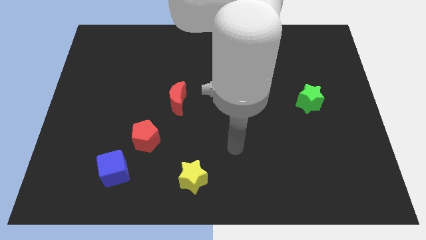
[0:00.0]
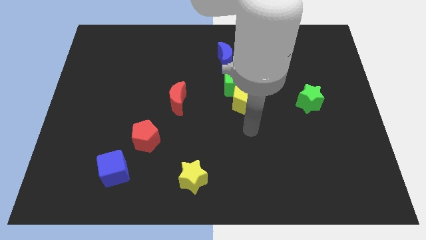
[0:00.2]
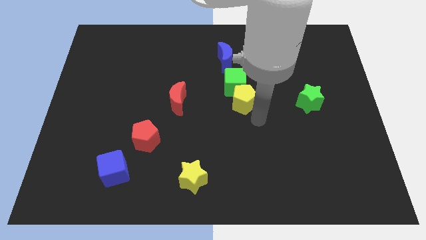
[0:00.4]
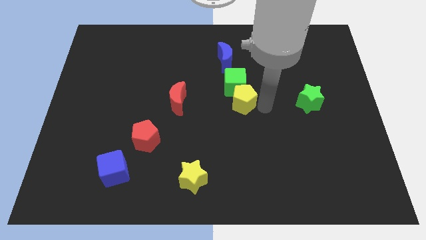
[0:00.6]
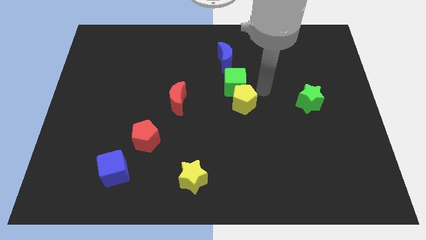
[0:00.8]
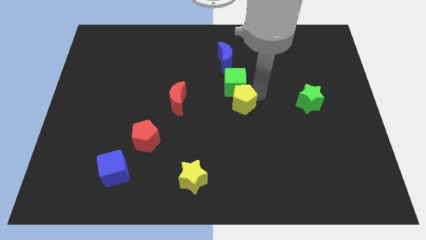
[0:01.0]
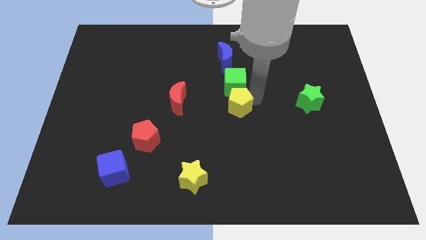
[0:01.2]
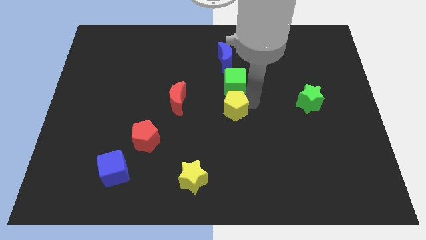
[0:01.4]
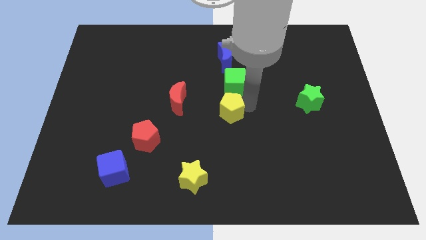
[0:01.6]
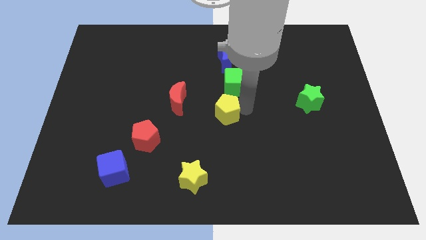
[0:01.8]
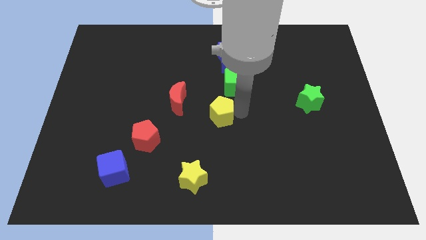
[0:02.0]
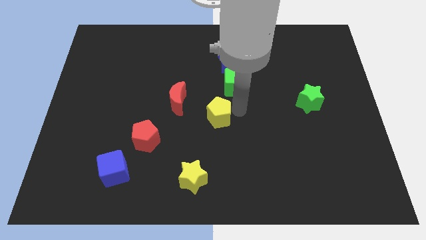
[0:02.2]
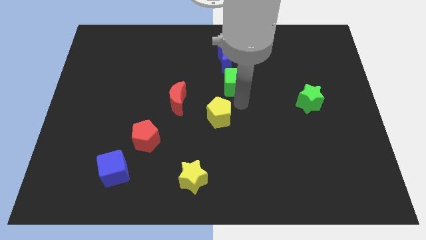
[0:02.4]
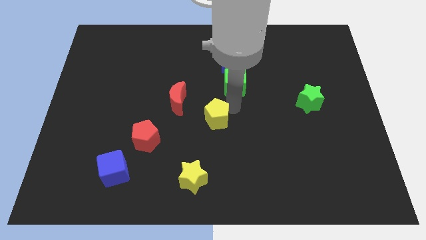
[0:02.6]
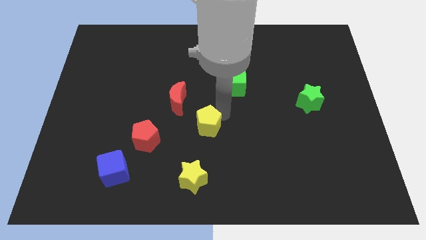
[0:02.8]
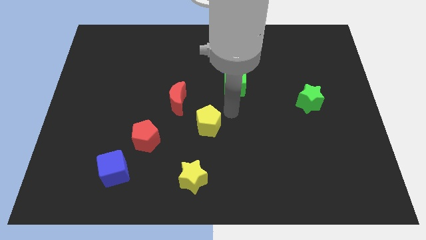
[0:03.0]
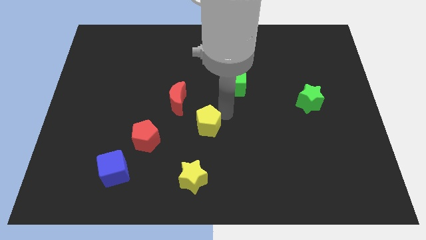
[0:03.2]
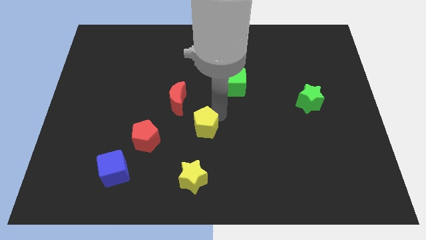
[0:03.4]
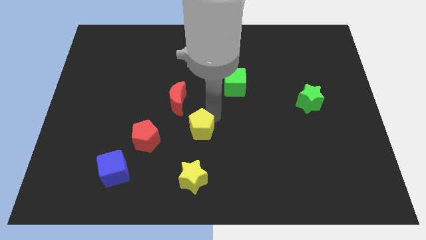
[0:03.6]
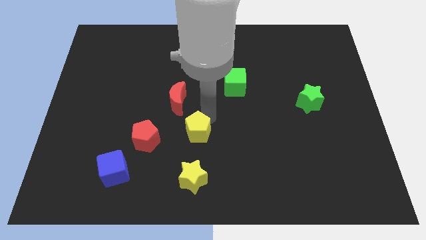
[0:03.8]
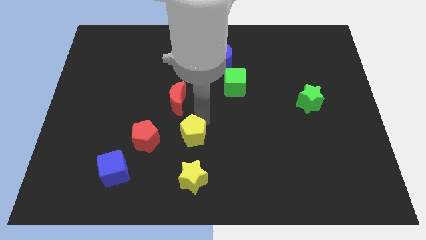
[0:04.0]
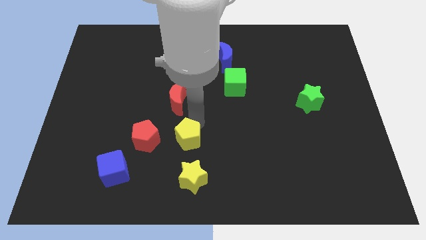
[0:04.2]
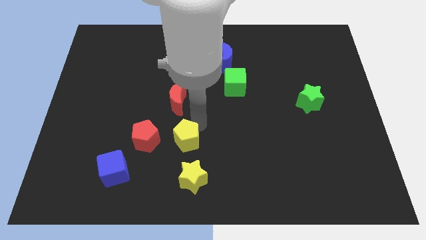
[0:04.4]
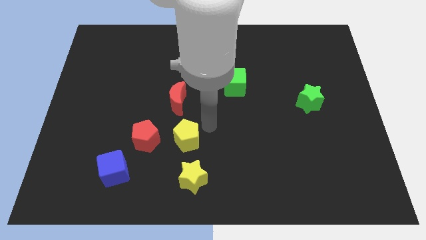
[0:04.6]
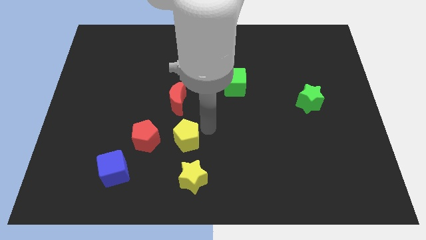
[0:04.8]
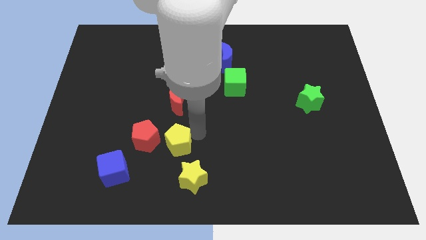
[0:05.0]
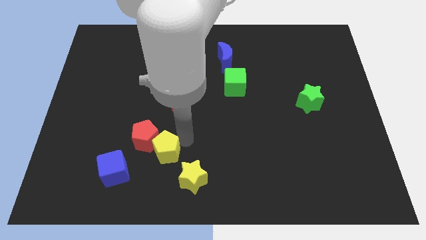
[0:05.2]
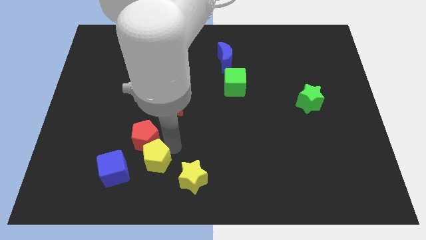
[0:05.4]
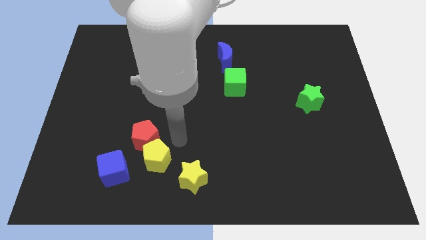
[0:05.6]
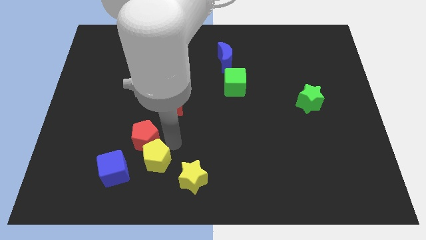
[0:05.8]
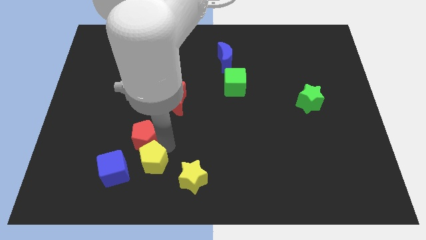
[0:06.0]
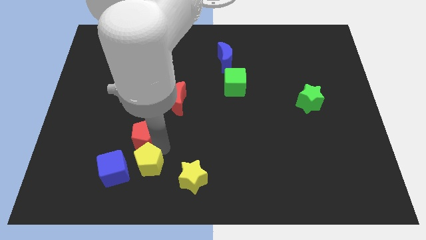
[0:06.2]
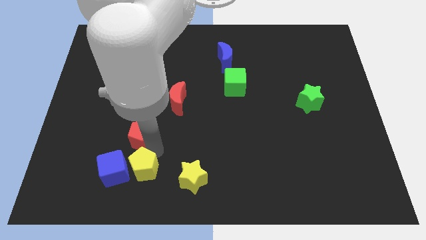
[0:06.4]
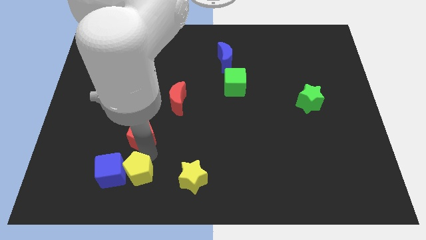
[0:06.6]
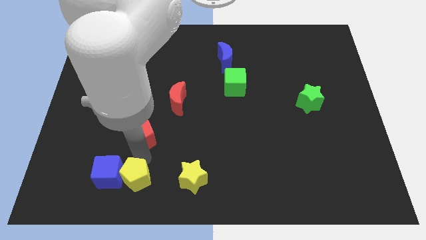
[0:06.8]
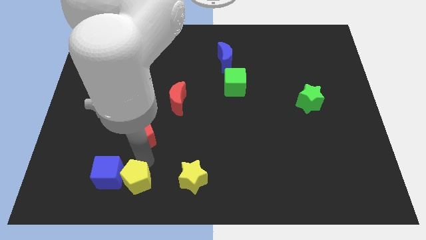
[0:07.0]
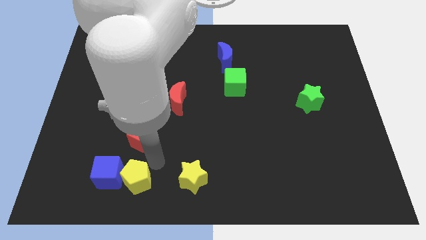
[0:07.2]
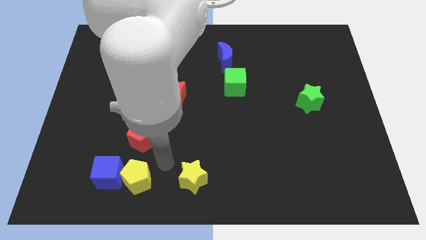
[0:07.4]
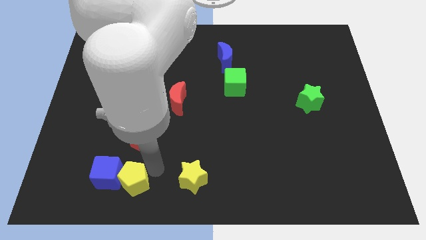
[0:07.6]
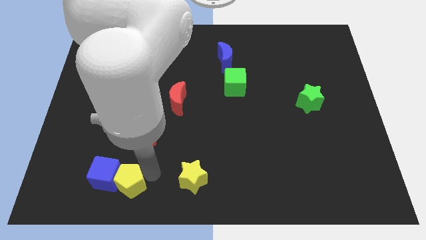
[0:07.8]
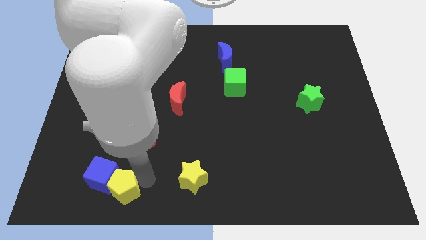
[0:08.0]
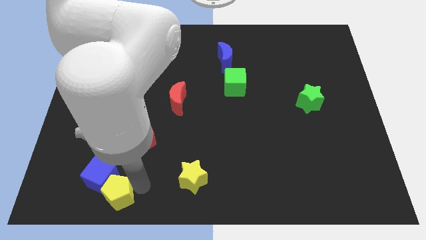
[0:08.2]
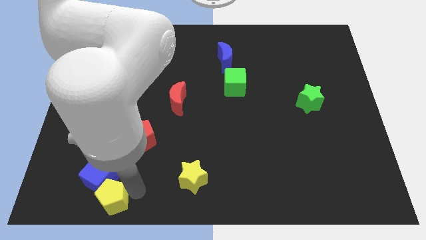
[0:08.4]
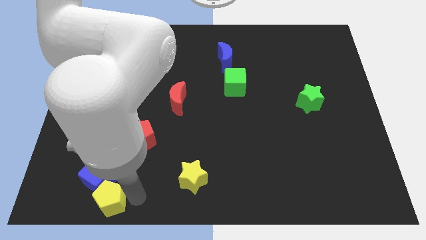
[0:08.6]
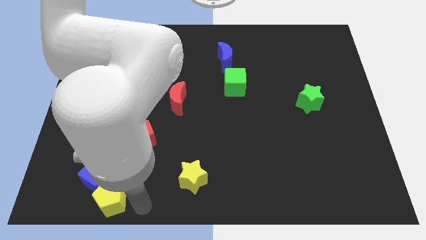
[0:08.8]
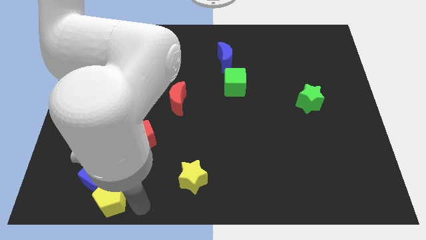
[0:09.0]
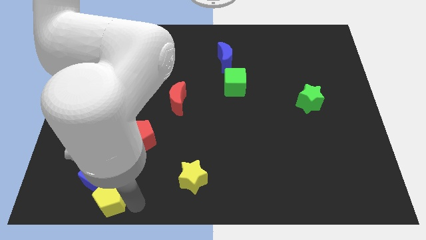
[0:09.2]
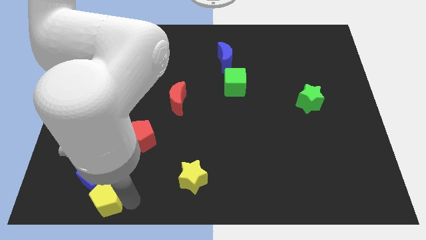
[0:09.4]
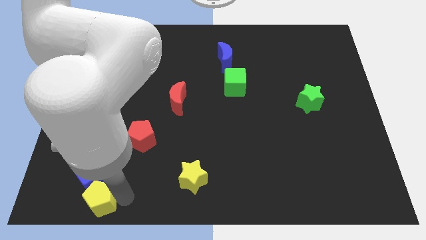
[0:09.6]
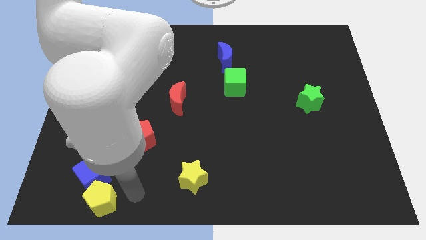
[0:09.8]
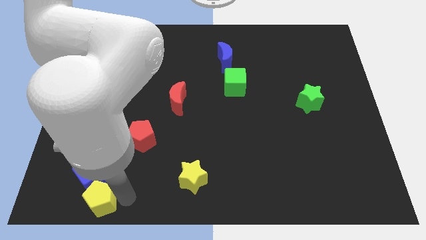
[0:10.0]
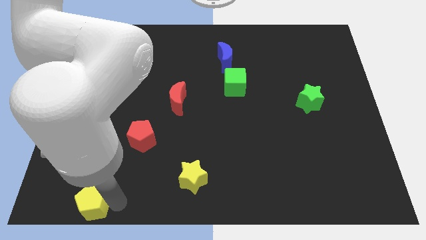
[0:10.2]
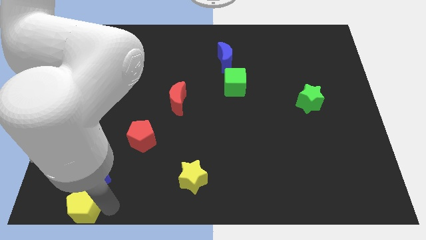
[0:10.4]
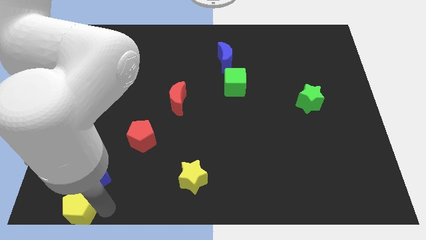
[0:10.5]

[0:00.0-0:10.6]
slide the yellow pentagon to the lower left corner
